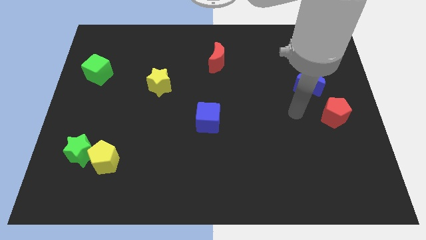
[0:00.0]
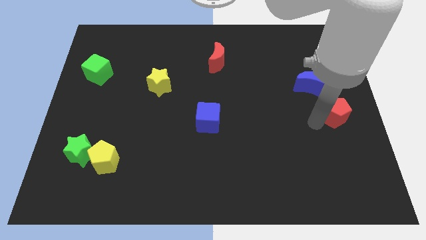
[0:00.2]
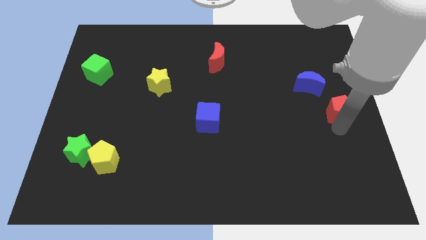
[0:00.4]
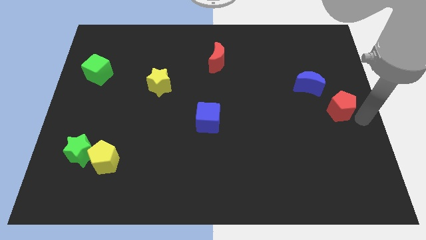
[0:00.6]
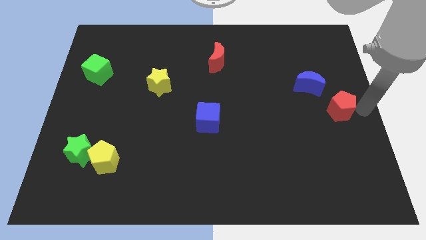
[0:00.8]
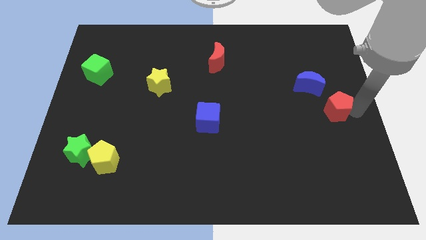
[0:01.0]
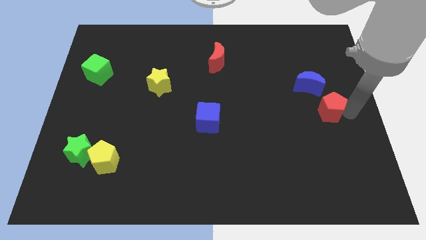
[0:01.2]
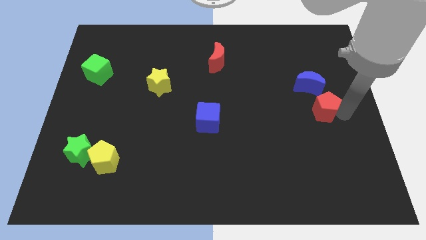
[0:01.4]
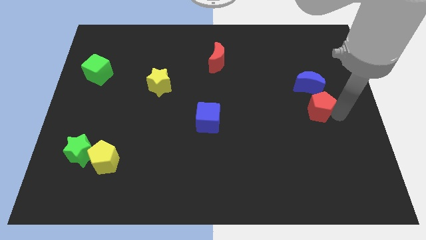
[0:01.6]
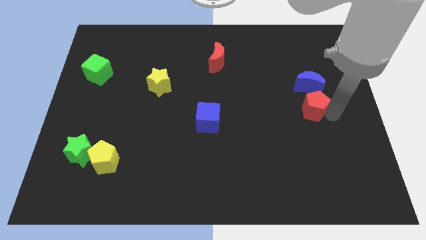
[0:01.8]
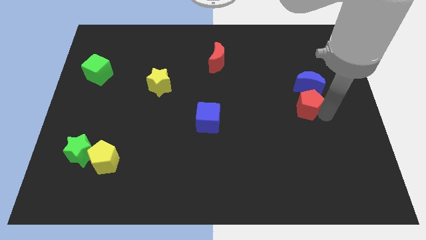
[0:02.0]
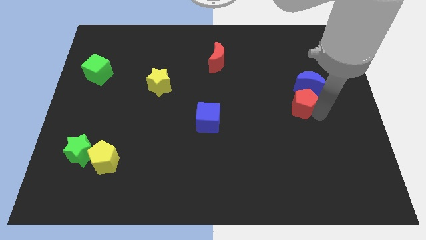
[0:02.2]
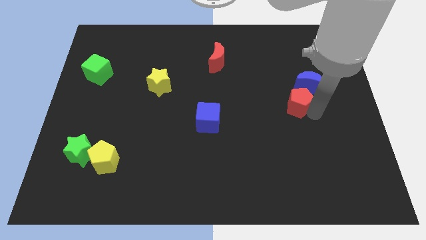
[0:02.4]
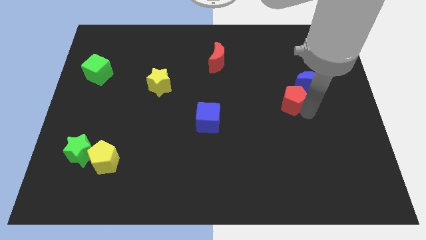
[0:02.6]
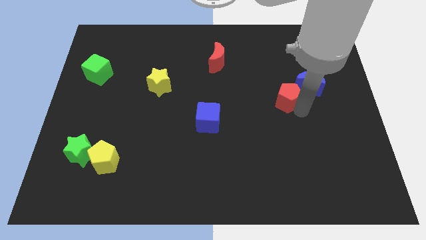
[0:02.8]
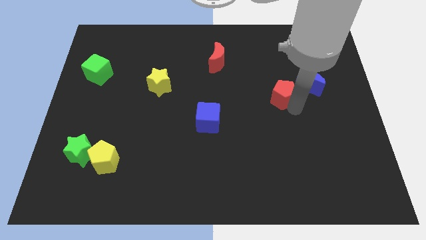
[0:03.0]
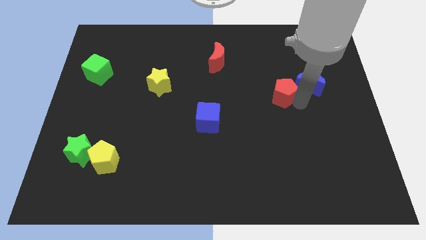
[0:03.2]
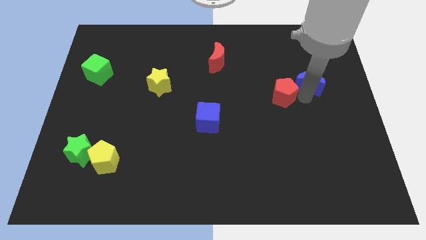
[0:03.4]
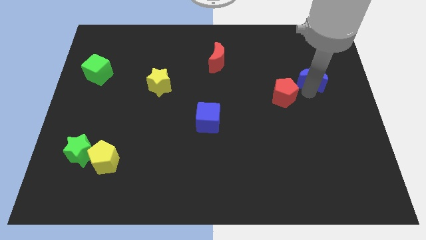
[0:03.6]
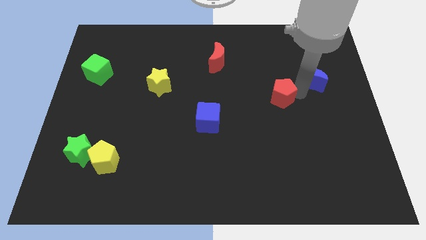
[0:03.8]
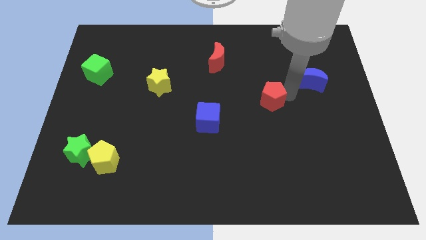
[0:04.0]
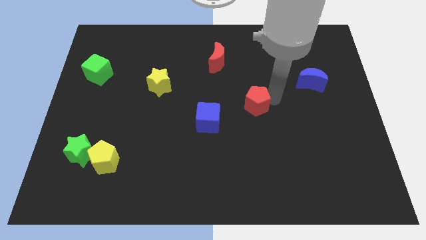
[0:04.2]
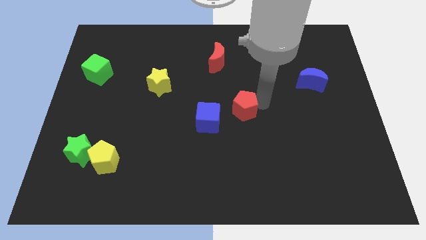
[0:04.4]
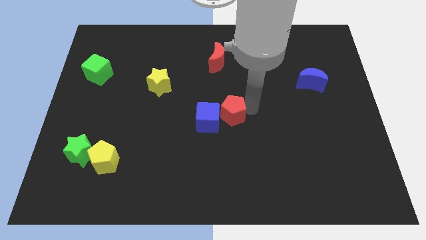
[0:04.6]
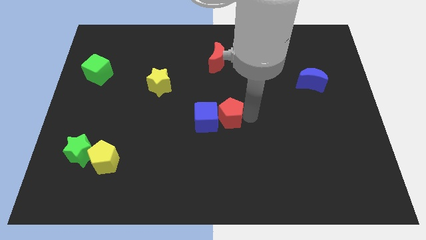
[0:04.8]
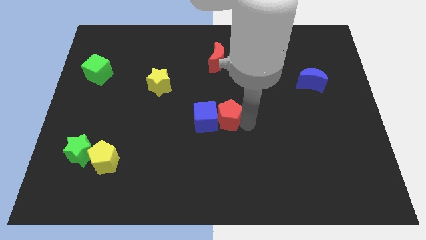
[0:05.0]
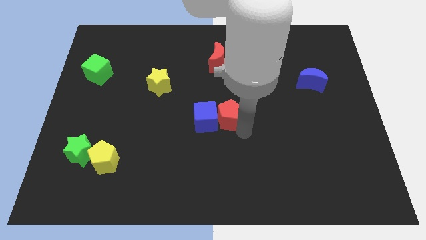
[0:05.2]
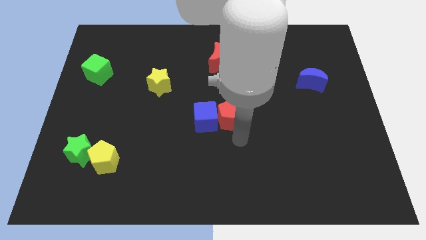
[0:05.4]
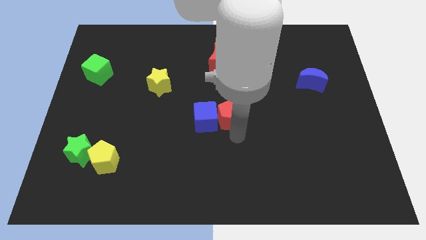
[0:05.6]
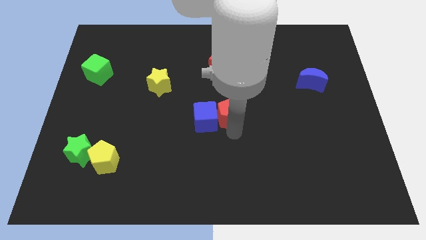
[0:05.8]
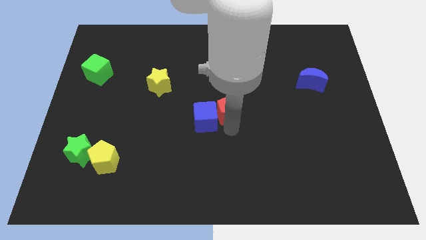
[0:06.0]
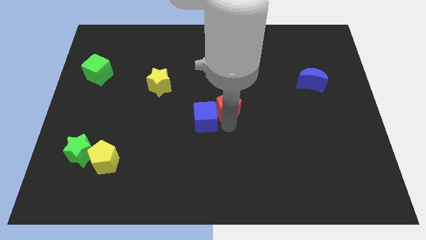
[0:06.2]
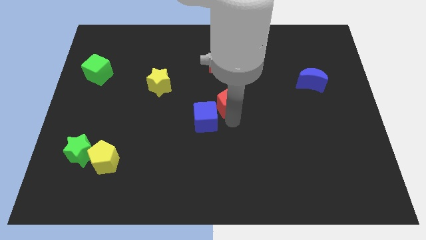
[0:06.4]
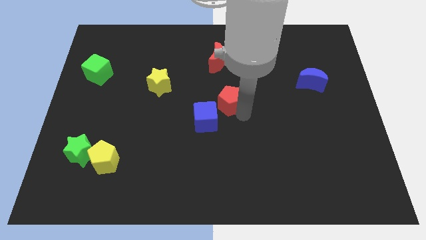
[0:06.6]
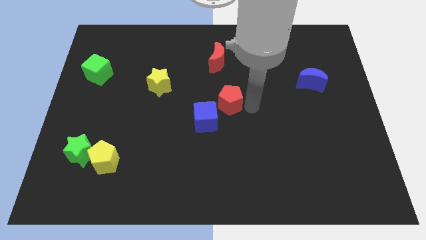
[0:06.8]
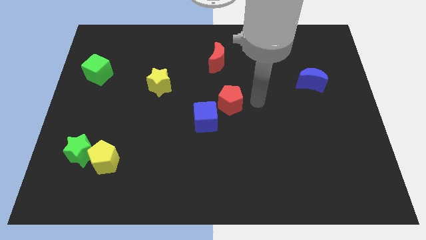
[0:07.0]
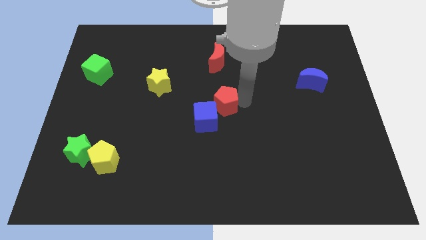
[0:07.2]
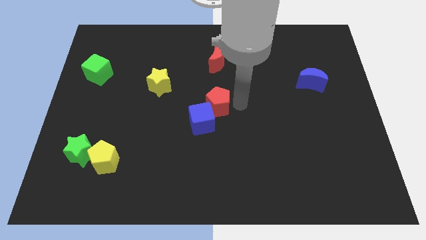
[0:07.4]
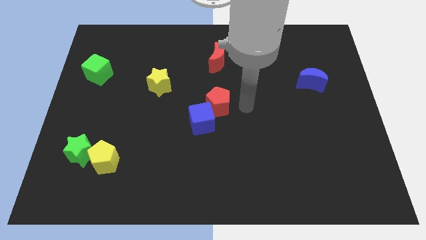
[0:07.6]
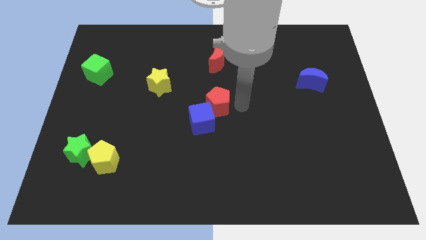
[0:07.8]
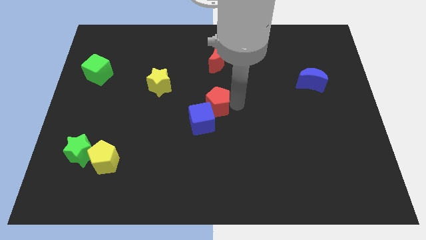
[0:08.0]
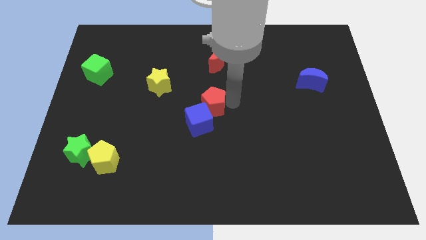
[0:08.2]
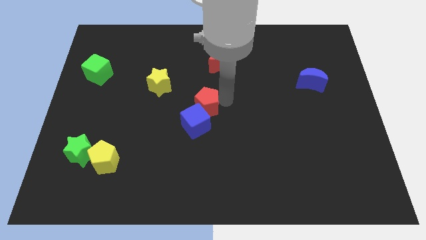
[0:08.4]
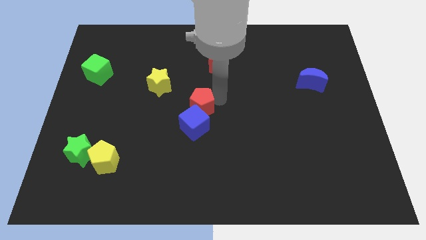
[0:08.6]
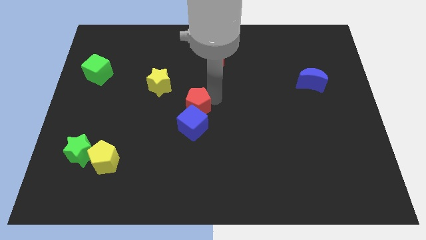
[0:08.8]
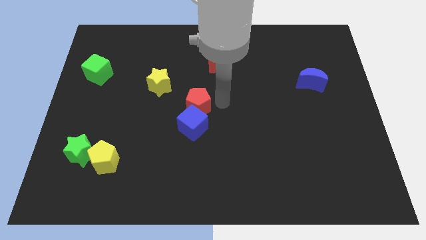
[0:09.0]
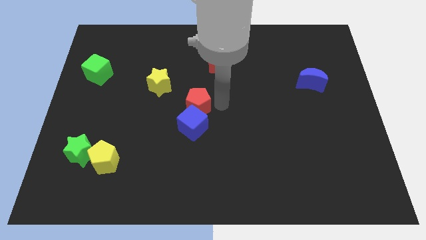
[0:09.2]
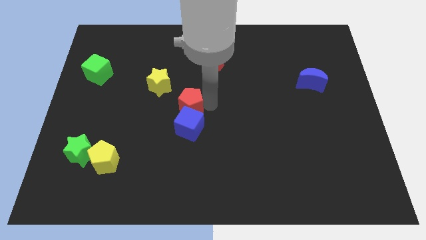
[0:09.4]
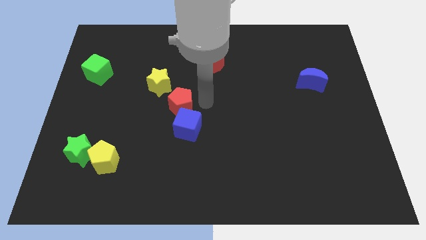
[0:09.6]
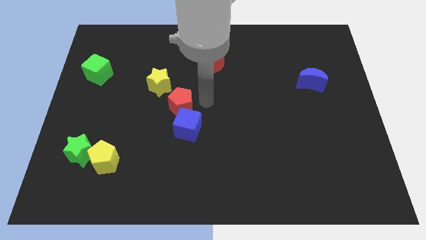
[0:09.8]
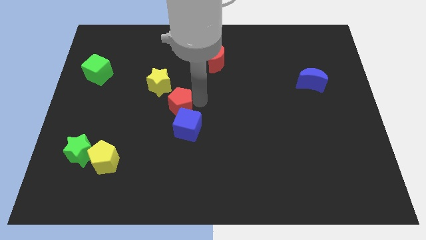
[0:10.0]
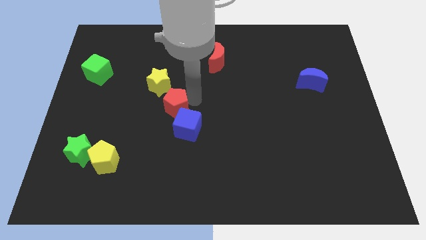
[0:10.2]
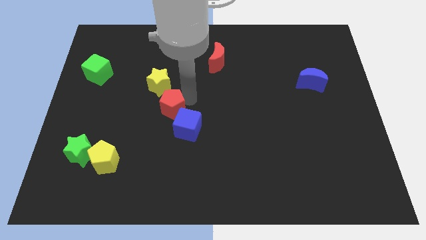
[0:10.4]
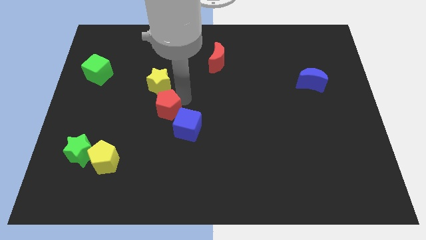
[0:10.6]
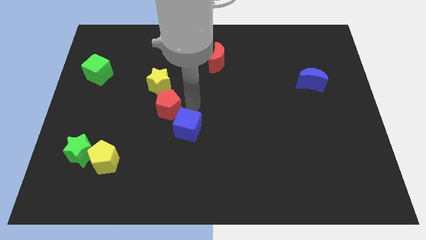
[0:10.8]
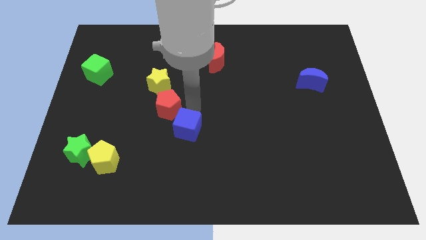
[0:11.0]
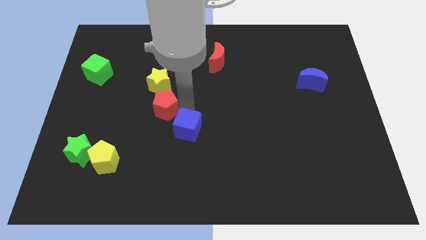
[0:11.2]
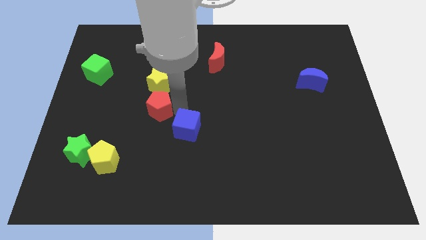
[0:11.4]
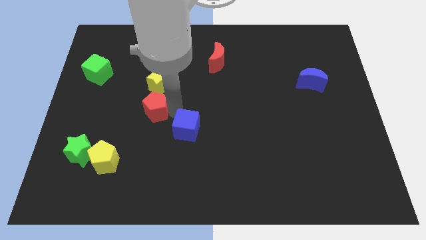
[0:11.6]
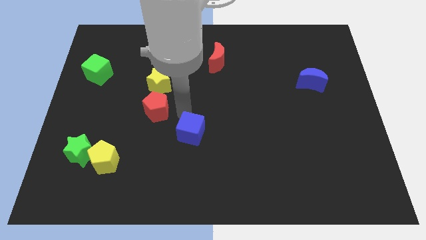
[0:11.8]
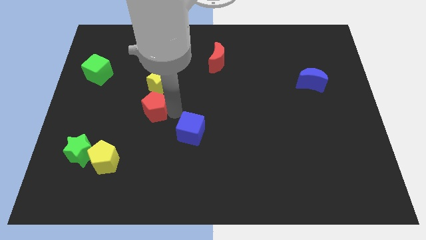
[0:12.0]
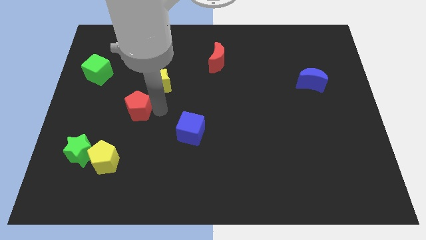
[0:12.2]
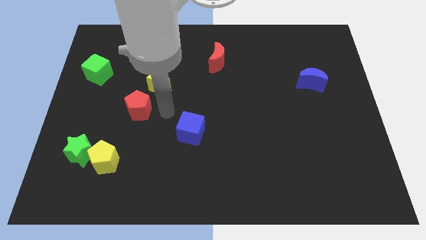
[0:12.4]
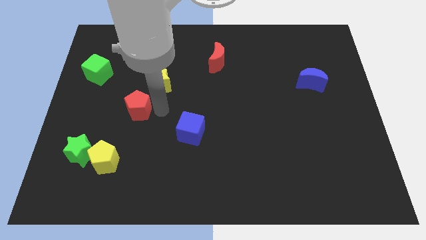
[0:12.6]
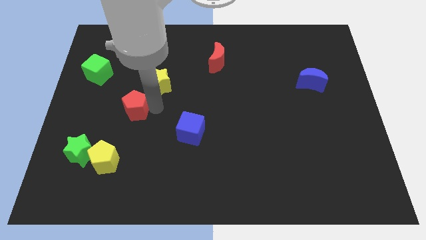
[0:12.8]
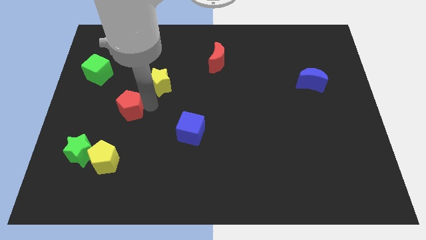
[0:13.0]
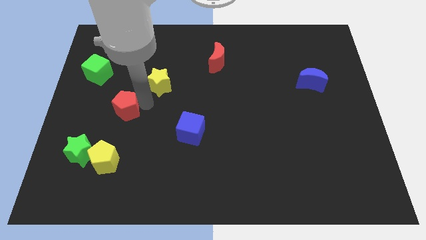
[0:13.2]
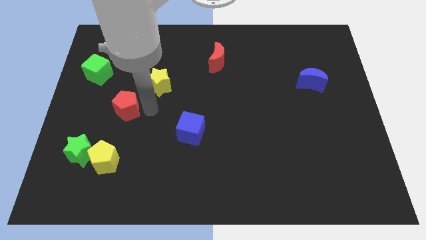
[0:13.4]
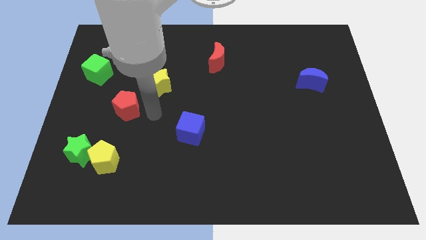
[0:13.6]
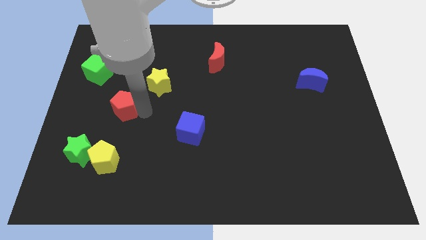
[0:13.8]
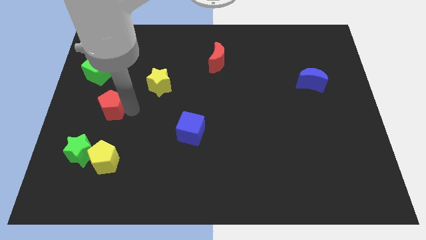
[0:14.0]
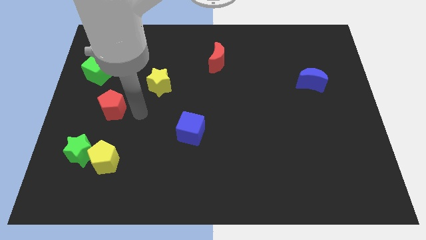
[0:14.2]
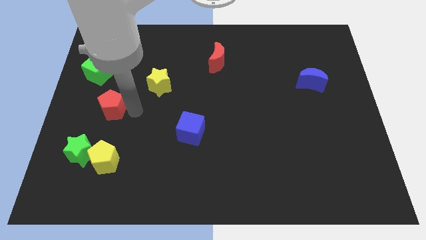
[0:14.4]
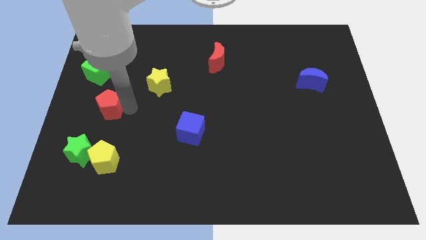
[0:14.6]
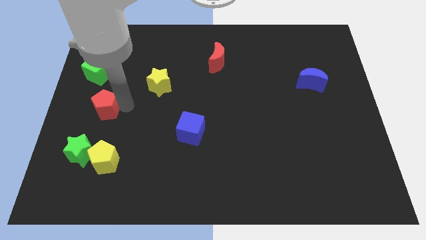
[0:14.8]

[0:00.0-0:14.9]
push the red pentagon to the left side of the board
